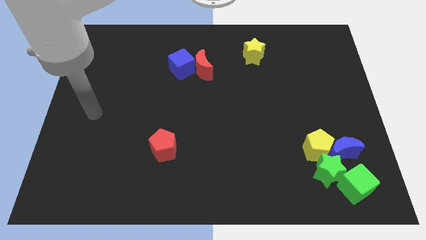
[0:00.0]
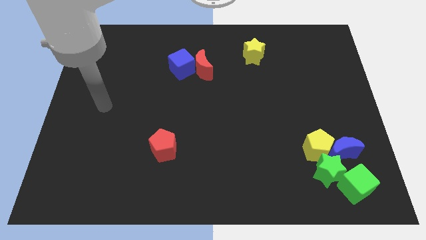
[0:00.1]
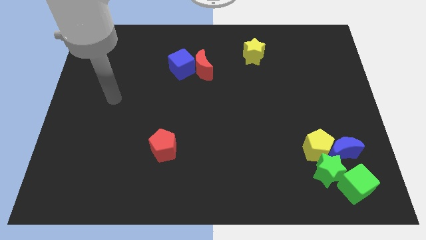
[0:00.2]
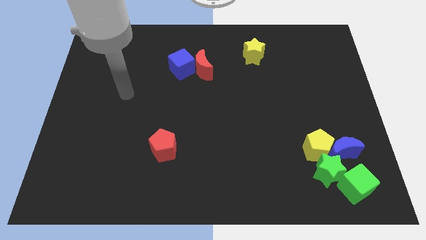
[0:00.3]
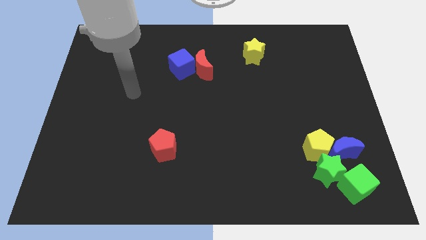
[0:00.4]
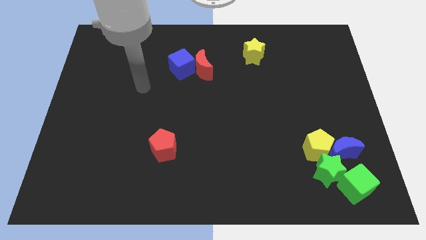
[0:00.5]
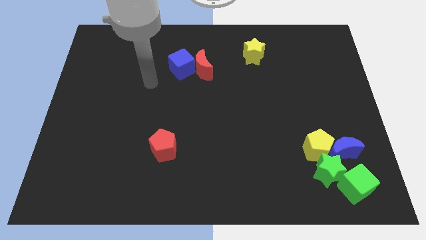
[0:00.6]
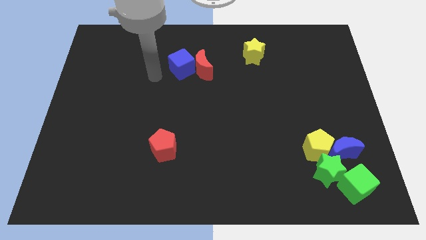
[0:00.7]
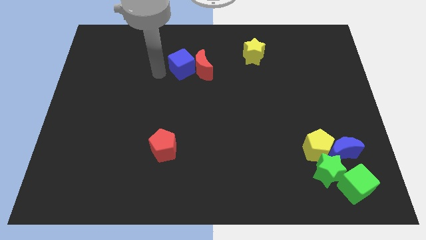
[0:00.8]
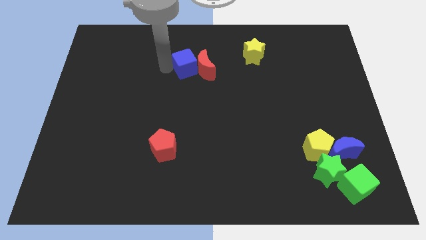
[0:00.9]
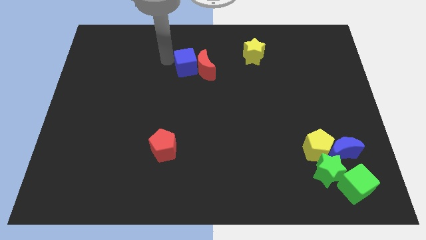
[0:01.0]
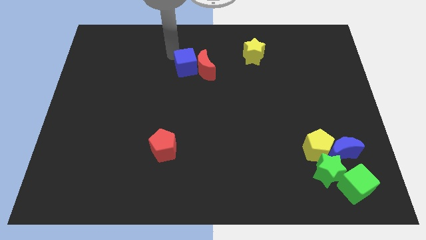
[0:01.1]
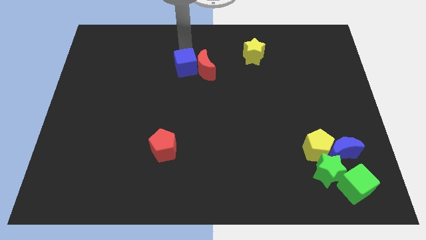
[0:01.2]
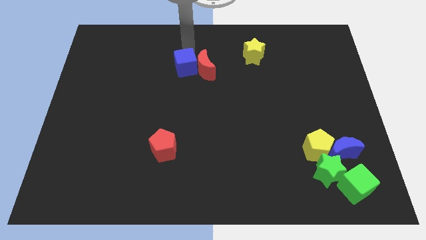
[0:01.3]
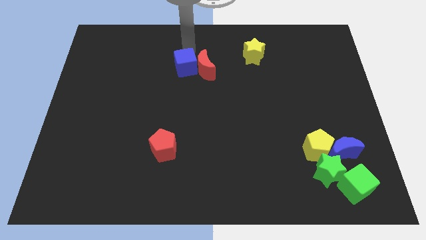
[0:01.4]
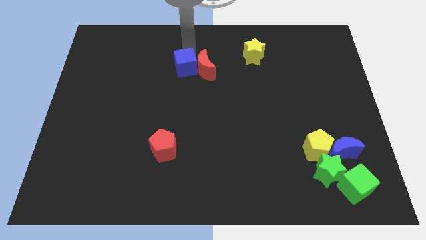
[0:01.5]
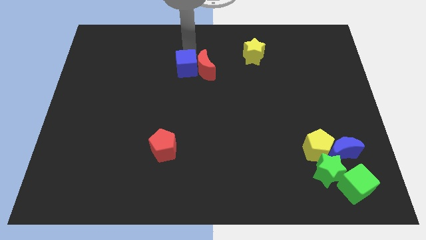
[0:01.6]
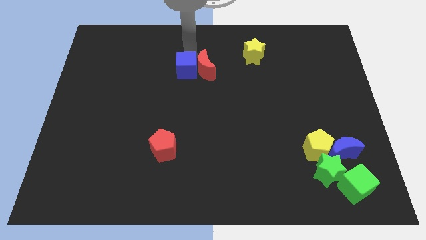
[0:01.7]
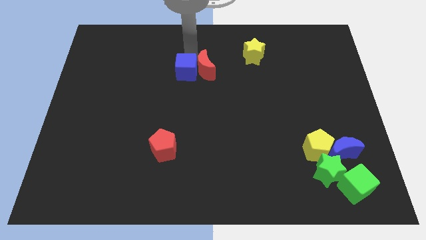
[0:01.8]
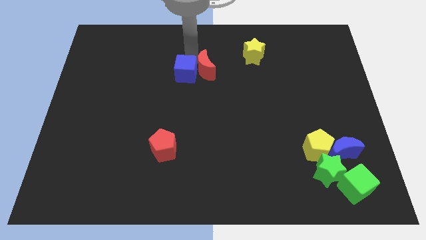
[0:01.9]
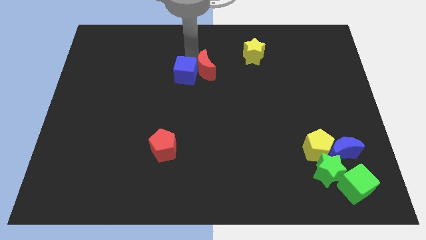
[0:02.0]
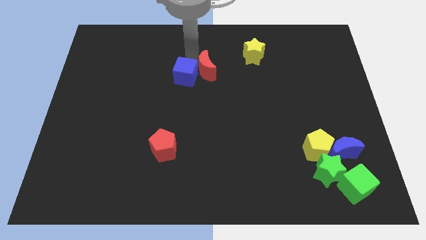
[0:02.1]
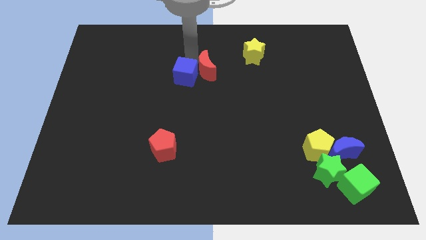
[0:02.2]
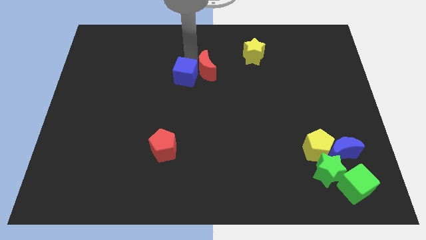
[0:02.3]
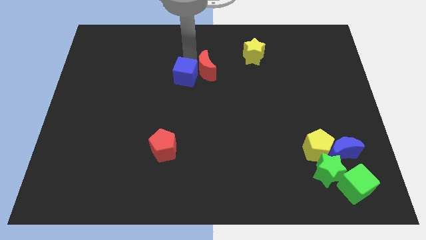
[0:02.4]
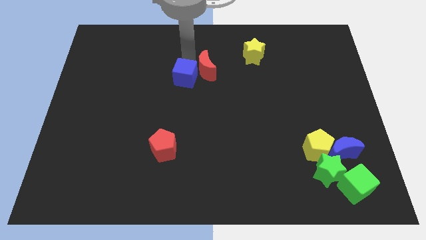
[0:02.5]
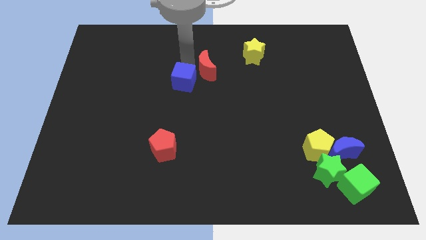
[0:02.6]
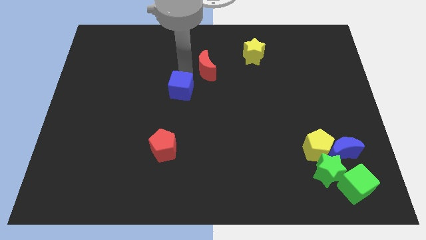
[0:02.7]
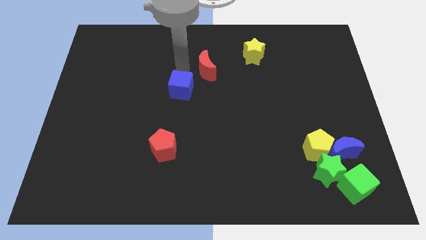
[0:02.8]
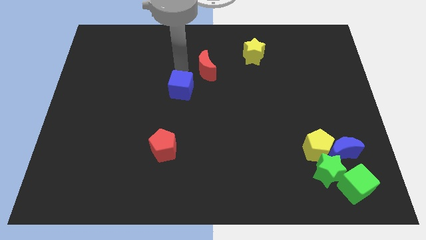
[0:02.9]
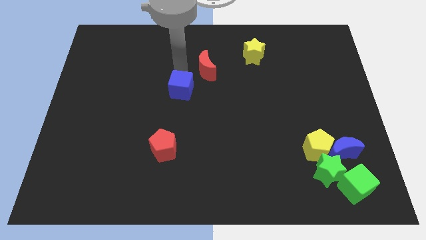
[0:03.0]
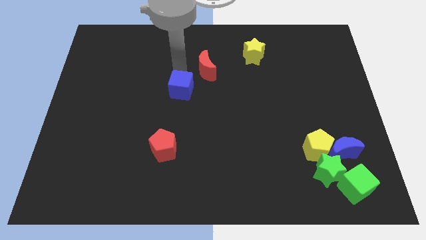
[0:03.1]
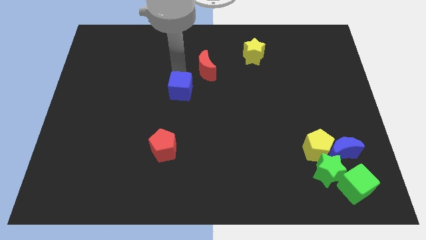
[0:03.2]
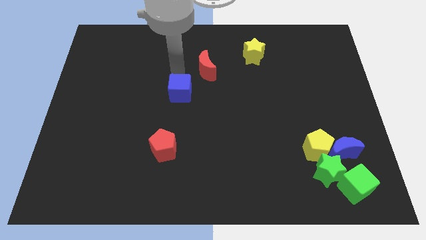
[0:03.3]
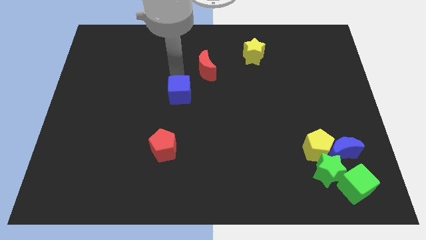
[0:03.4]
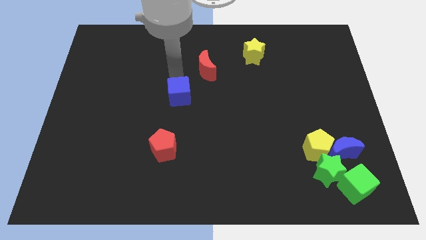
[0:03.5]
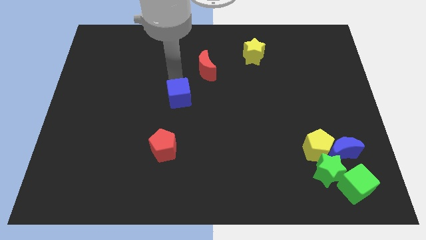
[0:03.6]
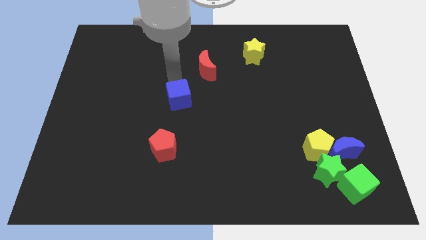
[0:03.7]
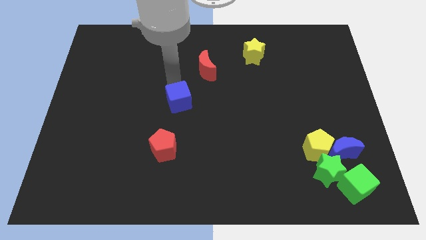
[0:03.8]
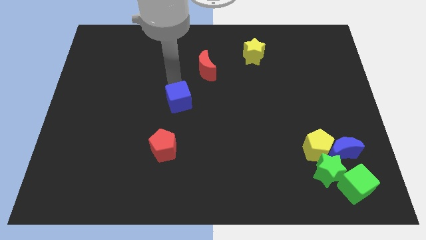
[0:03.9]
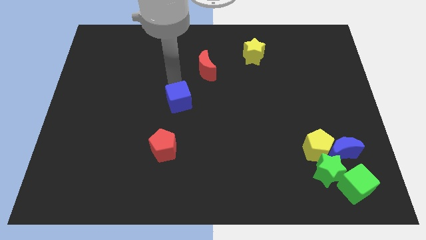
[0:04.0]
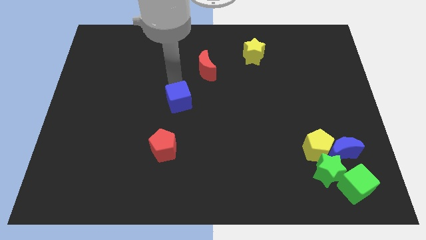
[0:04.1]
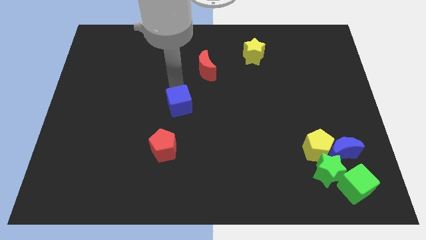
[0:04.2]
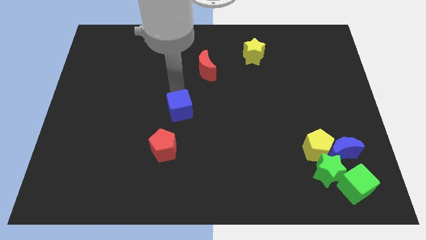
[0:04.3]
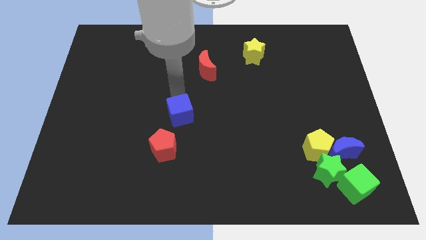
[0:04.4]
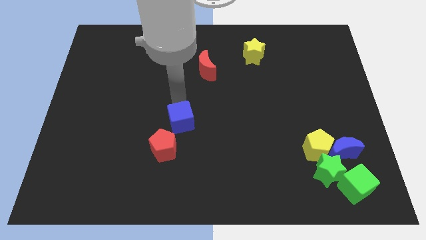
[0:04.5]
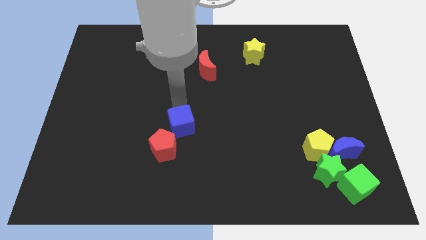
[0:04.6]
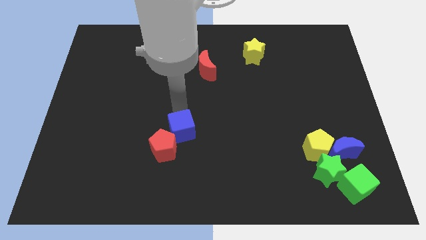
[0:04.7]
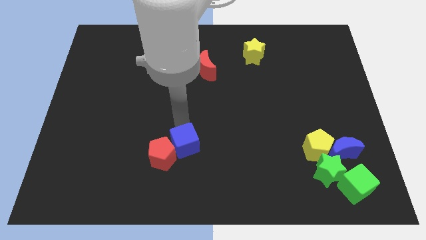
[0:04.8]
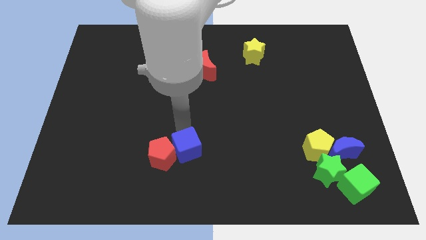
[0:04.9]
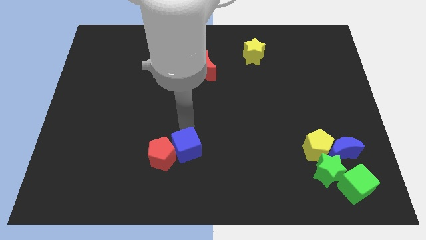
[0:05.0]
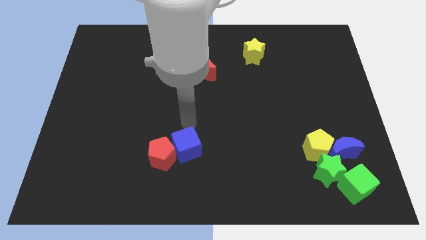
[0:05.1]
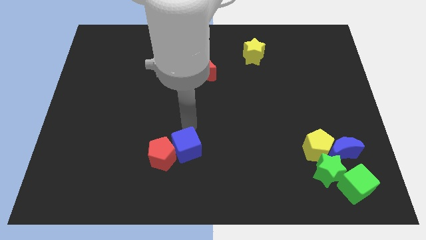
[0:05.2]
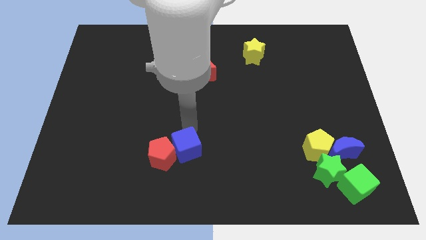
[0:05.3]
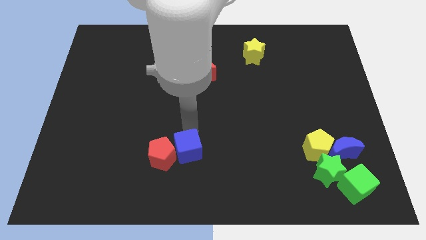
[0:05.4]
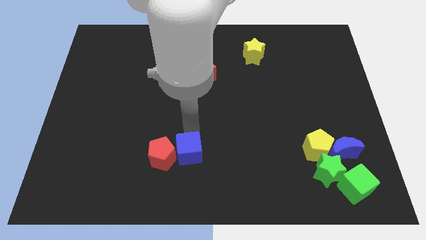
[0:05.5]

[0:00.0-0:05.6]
put the blue cube to the bottom right of the red pentagon

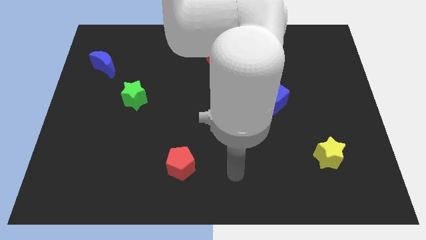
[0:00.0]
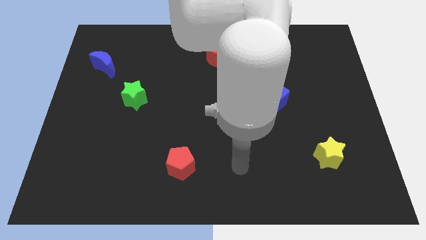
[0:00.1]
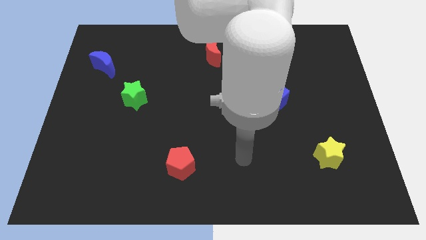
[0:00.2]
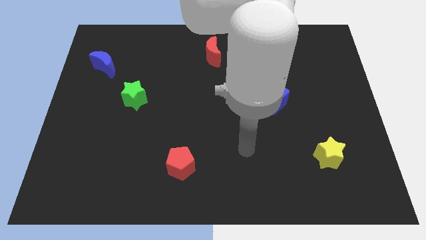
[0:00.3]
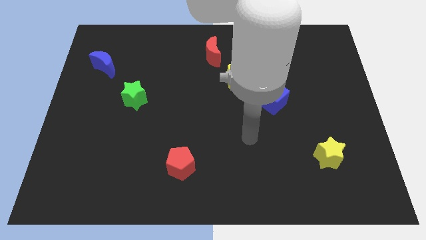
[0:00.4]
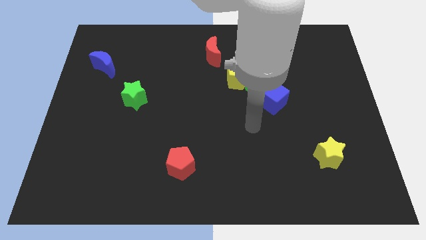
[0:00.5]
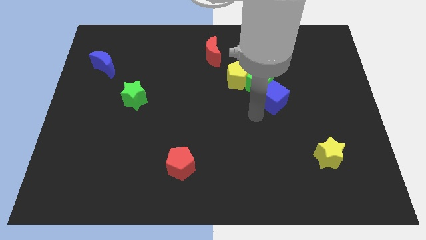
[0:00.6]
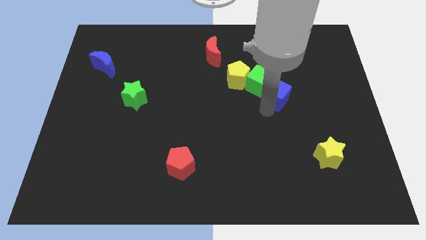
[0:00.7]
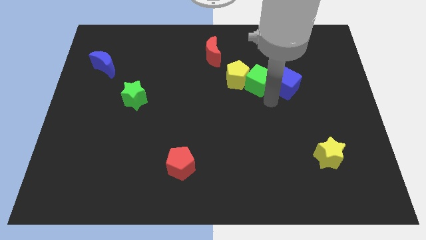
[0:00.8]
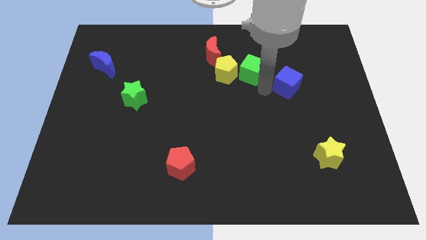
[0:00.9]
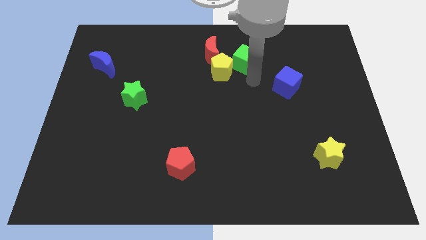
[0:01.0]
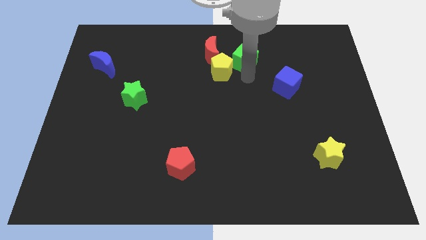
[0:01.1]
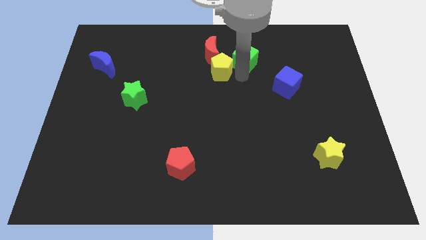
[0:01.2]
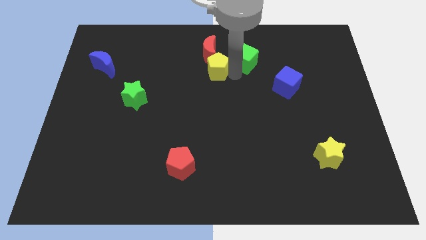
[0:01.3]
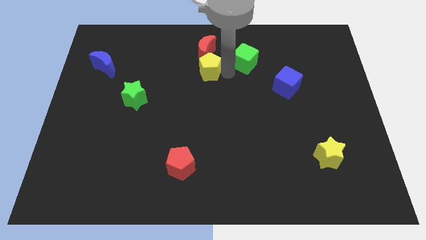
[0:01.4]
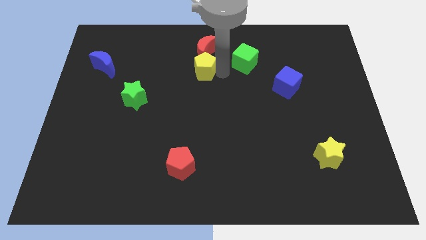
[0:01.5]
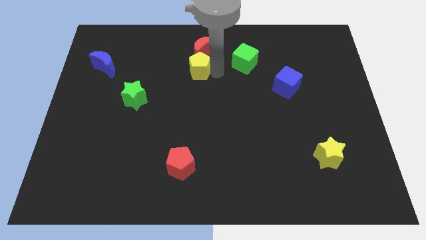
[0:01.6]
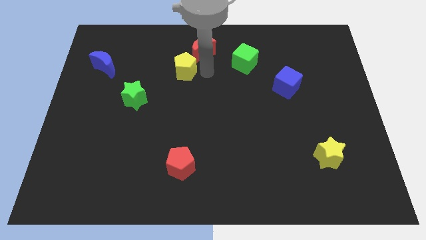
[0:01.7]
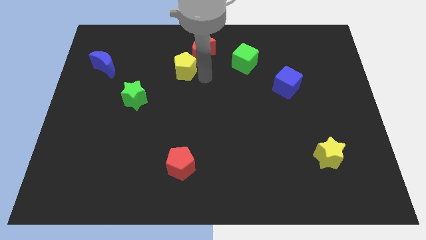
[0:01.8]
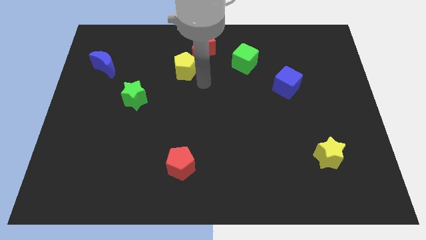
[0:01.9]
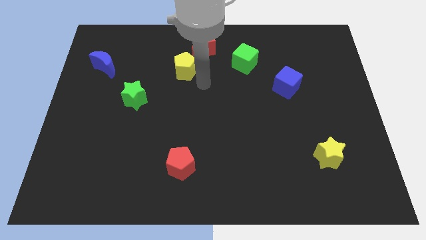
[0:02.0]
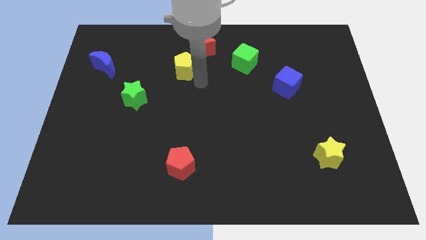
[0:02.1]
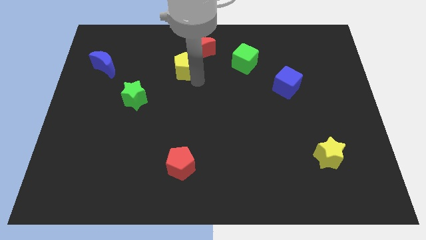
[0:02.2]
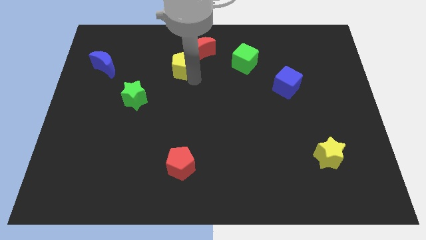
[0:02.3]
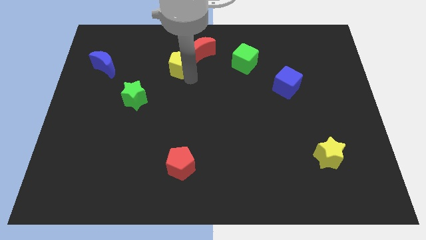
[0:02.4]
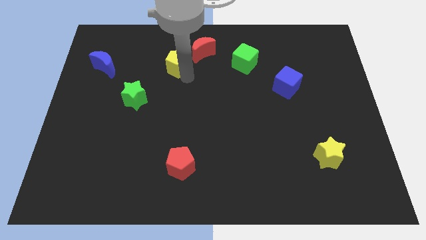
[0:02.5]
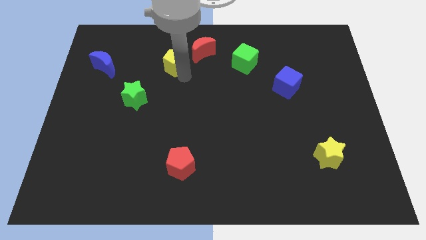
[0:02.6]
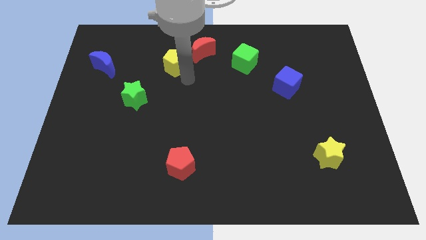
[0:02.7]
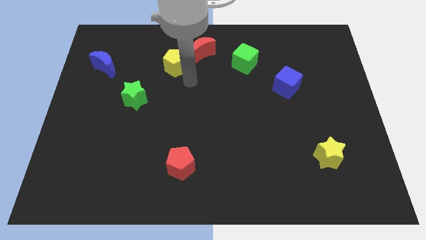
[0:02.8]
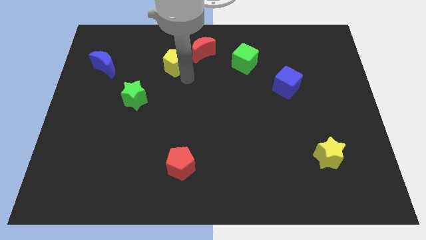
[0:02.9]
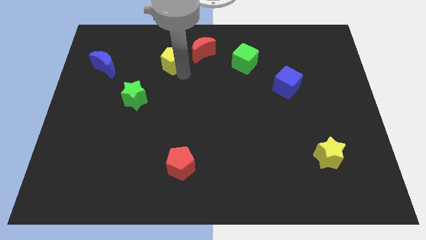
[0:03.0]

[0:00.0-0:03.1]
put the yellow pentagon to the left side of the red moon
